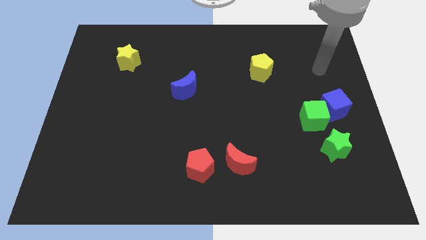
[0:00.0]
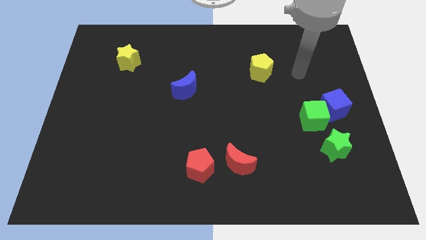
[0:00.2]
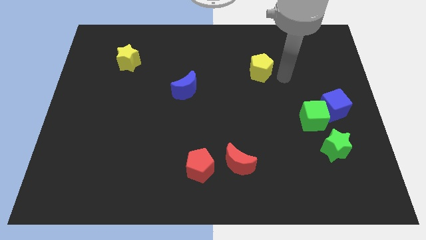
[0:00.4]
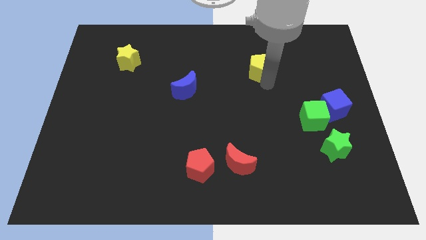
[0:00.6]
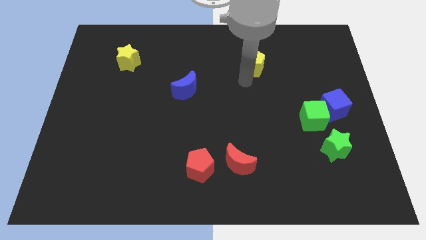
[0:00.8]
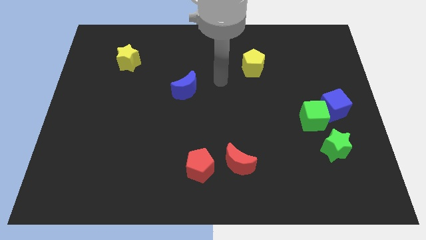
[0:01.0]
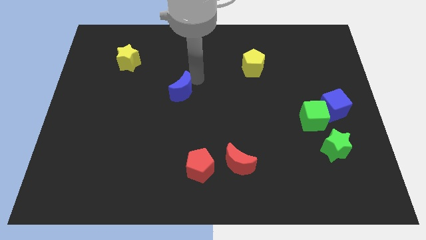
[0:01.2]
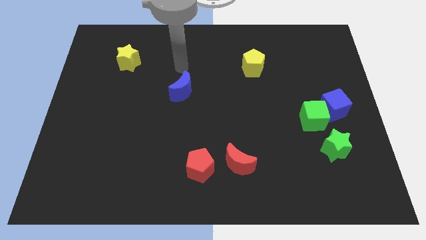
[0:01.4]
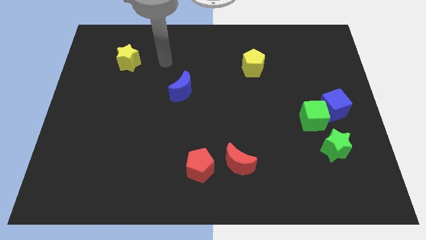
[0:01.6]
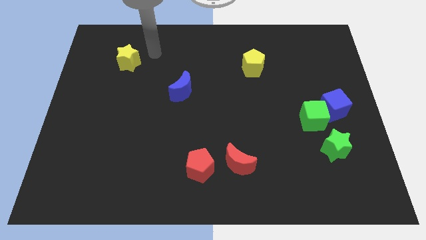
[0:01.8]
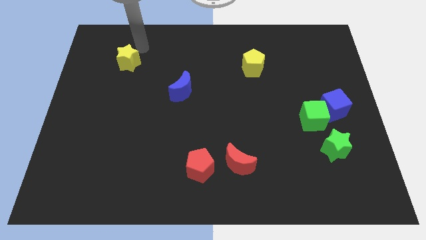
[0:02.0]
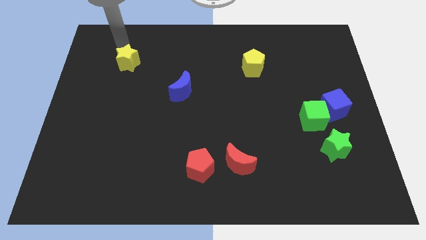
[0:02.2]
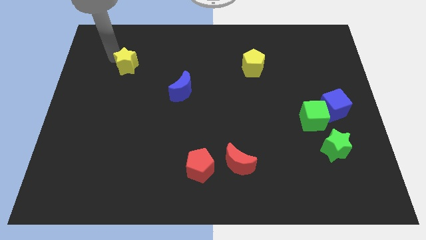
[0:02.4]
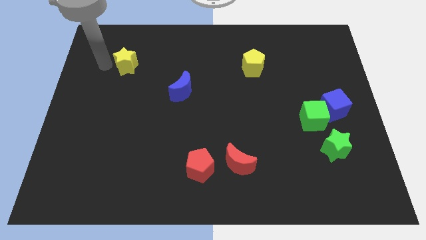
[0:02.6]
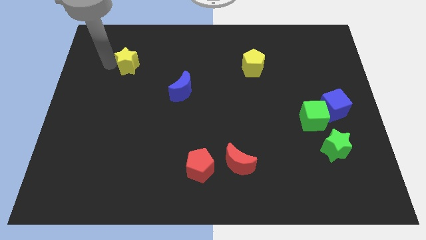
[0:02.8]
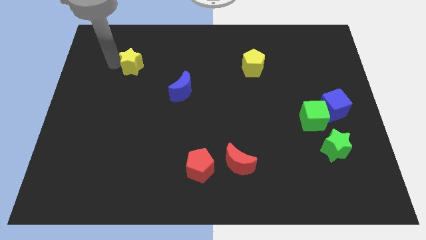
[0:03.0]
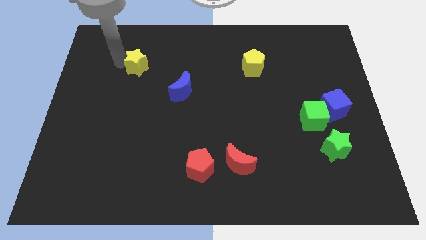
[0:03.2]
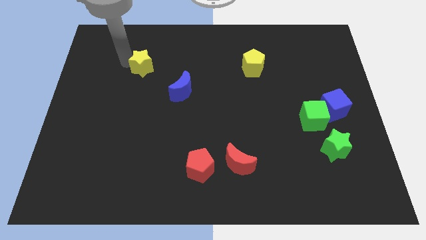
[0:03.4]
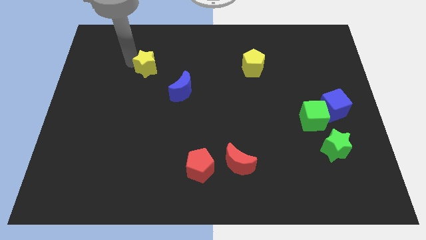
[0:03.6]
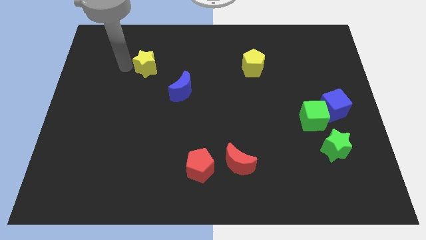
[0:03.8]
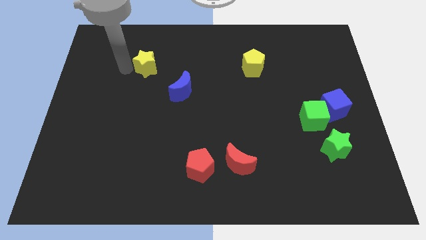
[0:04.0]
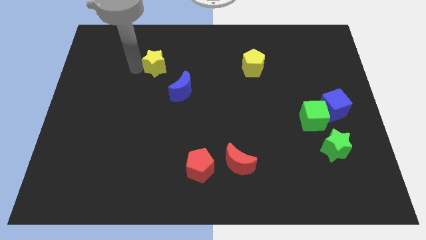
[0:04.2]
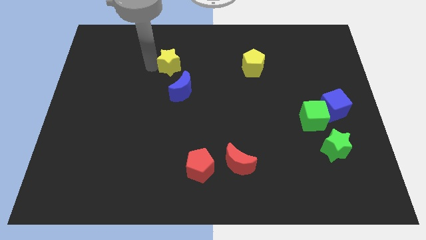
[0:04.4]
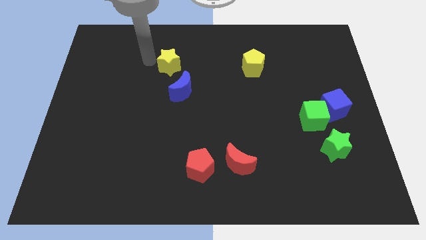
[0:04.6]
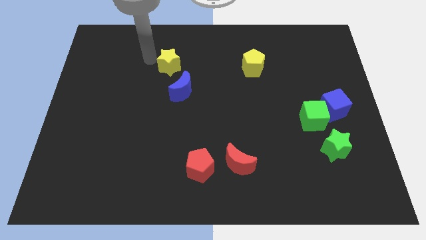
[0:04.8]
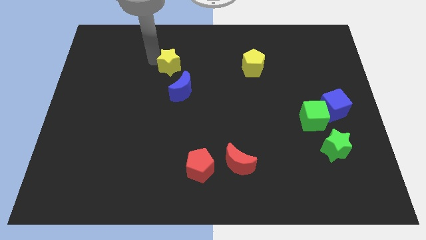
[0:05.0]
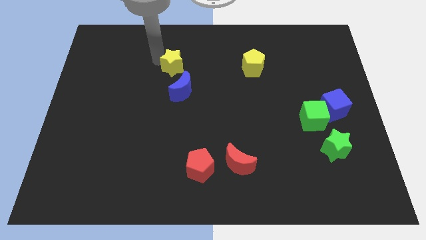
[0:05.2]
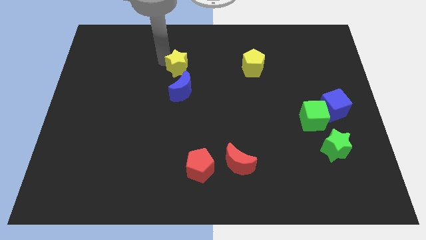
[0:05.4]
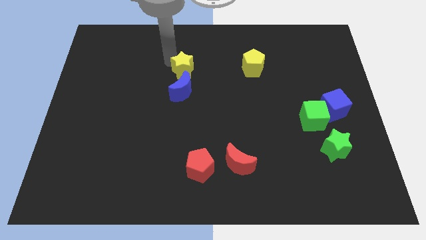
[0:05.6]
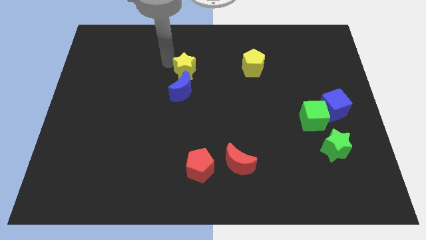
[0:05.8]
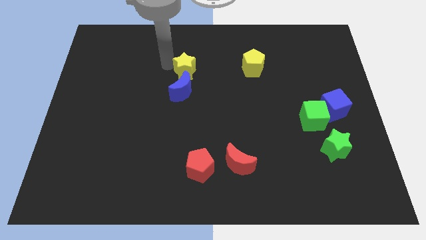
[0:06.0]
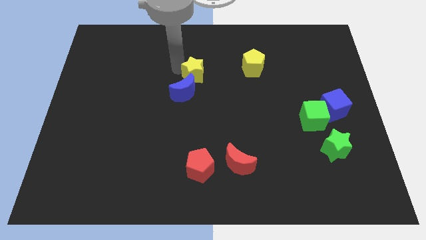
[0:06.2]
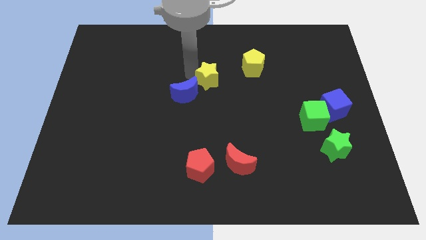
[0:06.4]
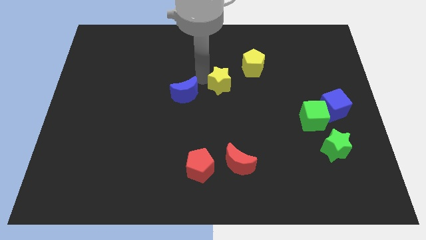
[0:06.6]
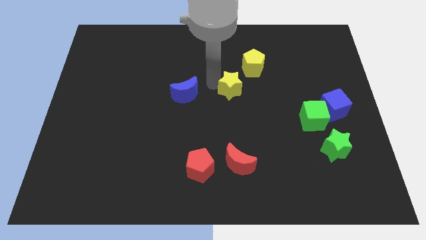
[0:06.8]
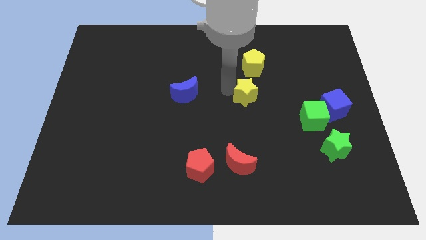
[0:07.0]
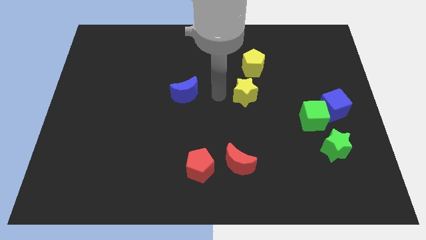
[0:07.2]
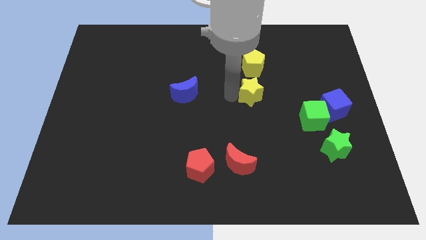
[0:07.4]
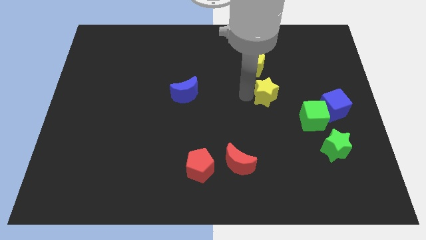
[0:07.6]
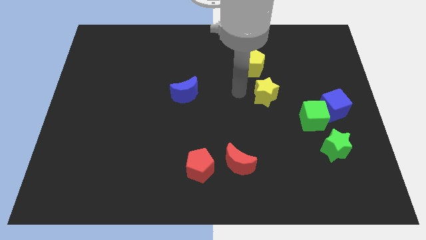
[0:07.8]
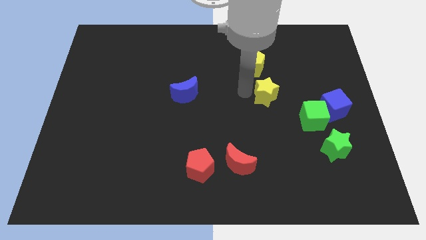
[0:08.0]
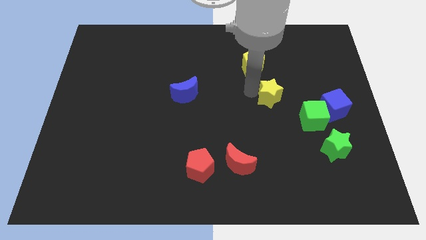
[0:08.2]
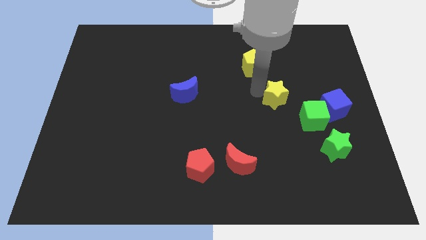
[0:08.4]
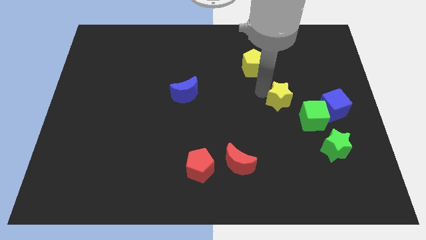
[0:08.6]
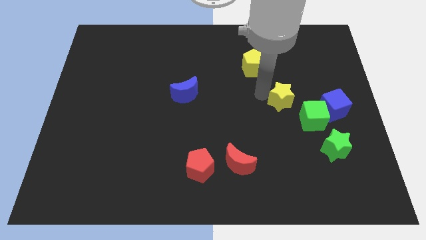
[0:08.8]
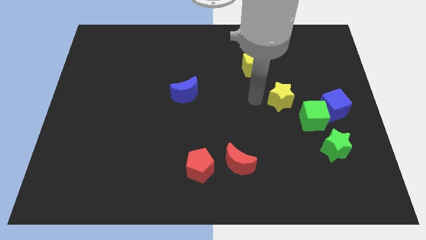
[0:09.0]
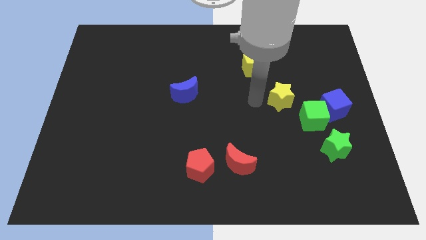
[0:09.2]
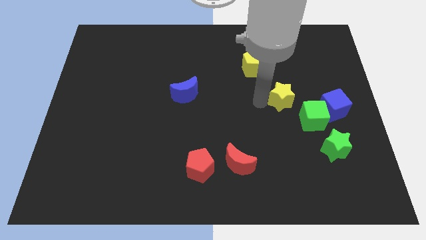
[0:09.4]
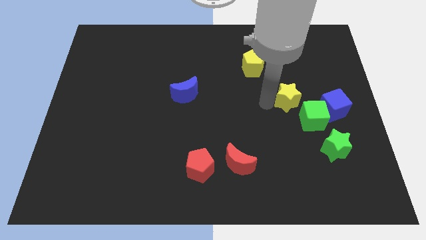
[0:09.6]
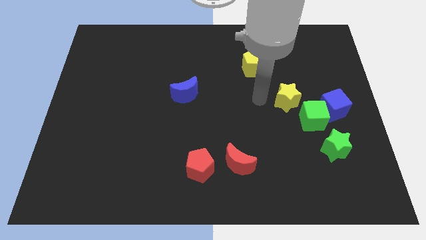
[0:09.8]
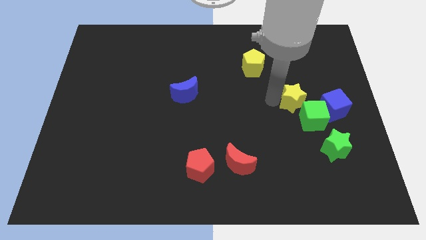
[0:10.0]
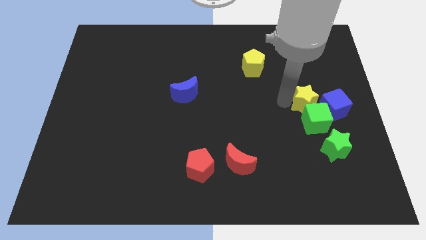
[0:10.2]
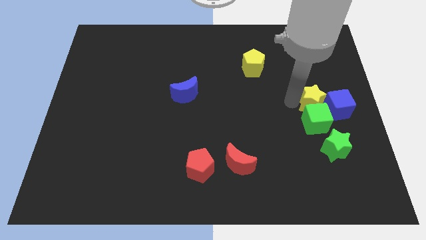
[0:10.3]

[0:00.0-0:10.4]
put the yellow star next to the blue cube

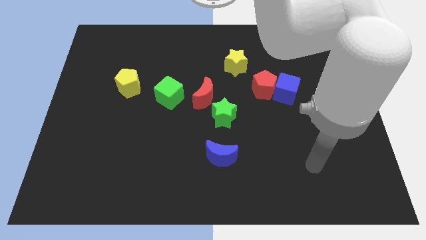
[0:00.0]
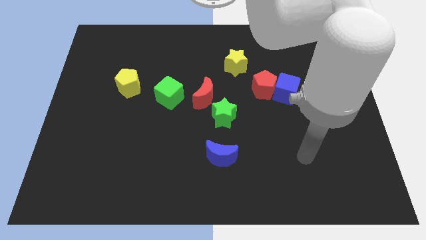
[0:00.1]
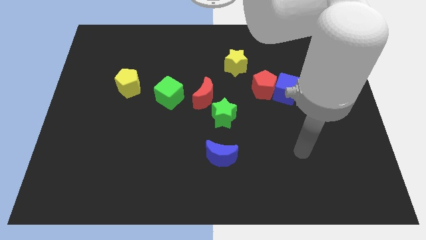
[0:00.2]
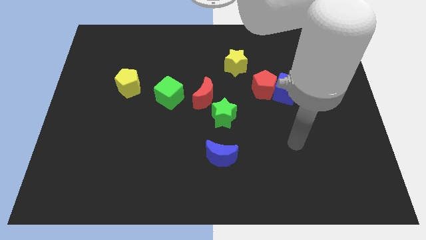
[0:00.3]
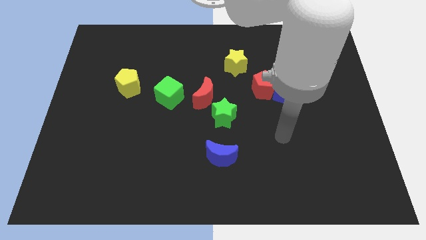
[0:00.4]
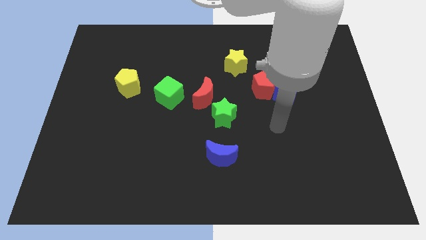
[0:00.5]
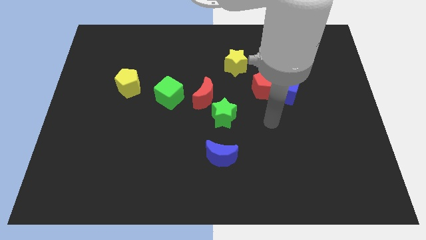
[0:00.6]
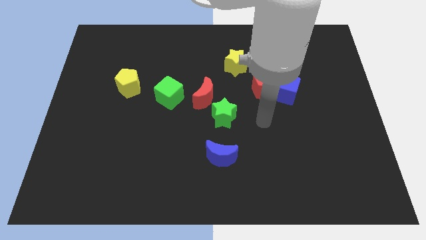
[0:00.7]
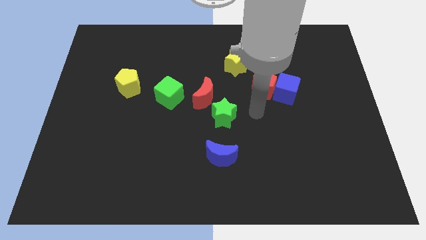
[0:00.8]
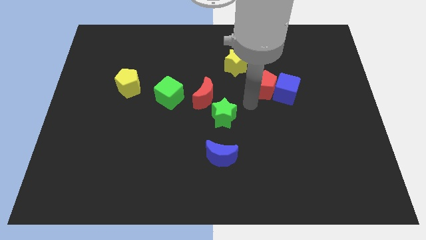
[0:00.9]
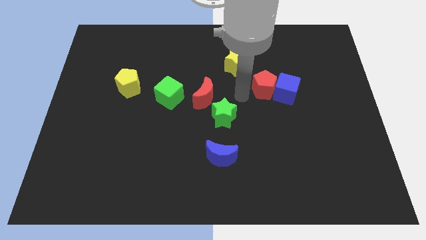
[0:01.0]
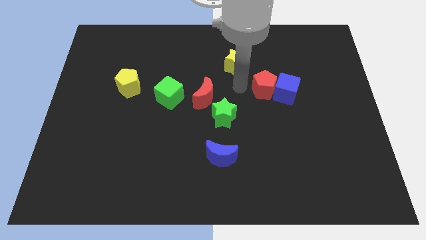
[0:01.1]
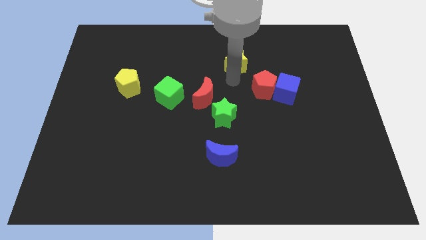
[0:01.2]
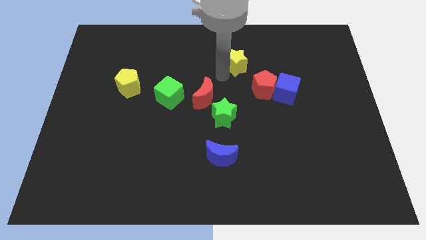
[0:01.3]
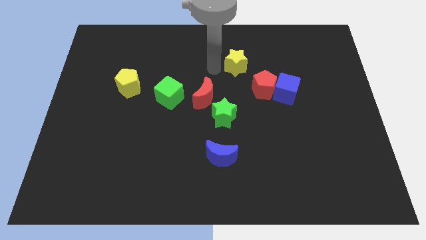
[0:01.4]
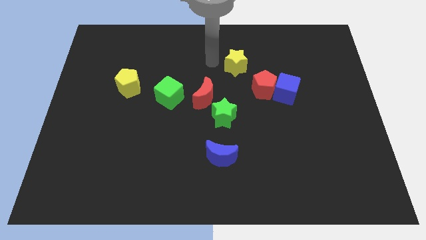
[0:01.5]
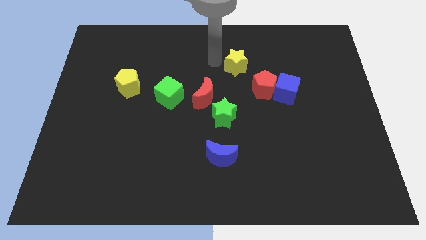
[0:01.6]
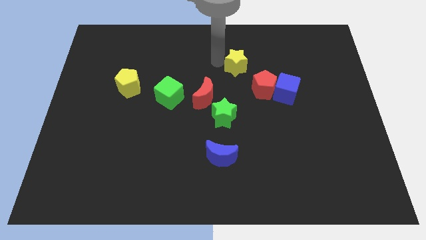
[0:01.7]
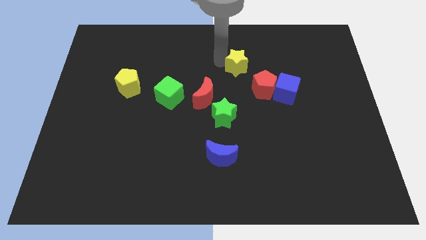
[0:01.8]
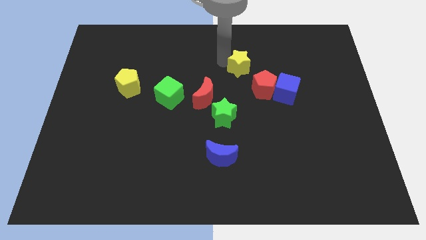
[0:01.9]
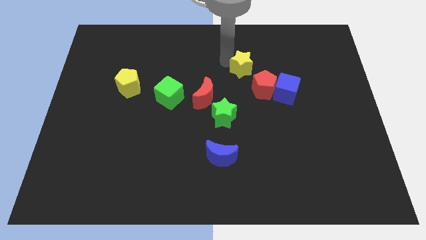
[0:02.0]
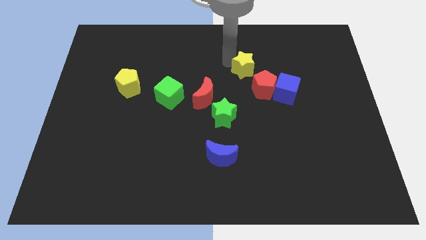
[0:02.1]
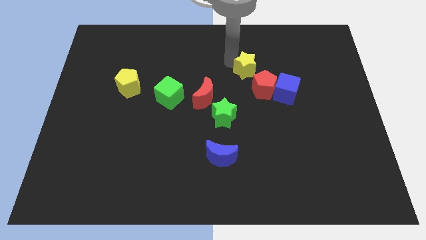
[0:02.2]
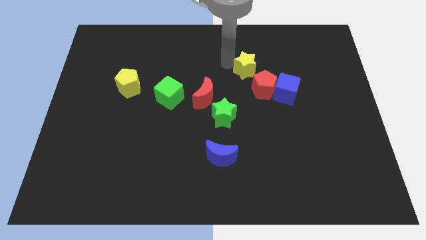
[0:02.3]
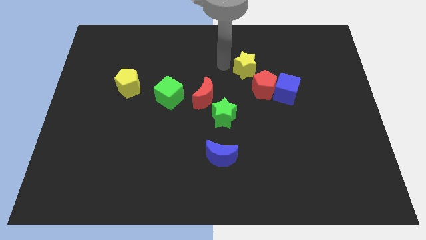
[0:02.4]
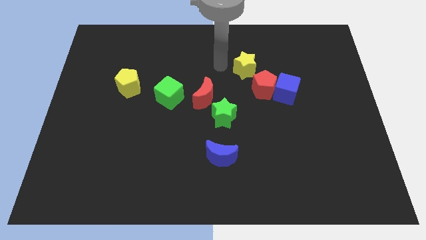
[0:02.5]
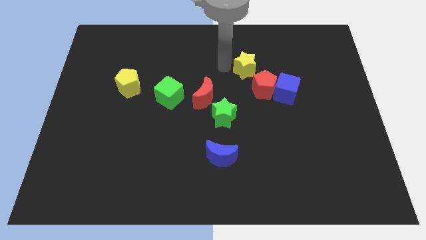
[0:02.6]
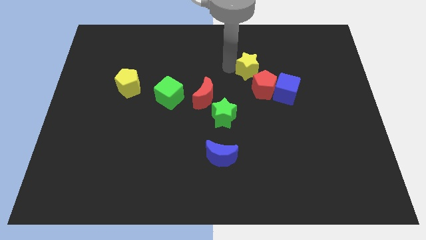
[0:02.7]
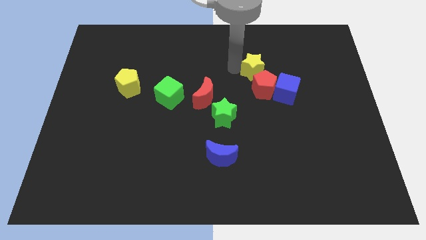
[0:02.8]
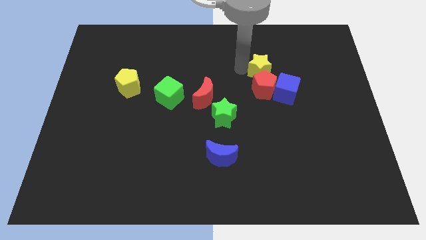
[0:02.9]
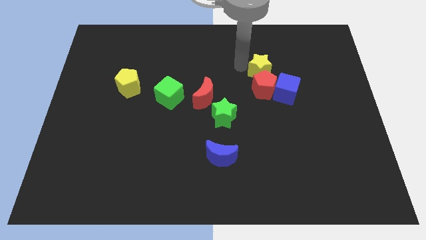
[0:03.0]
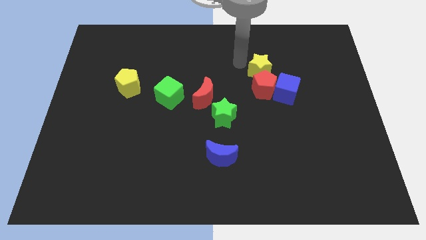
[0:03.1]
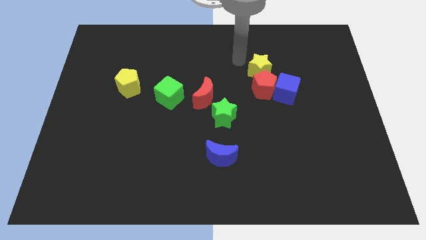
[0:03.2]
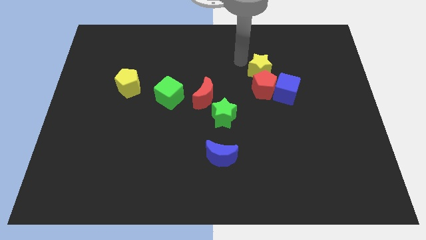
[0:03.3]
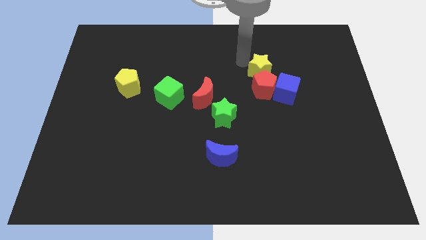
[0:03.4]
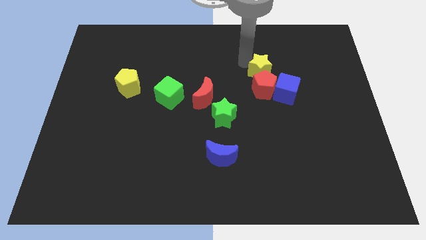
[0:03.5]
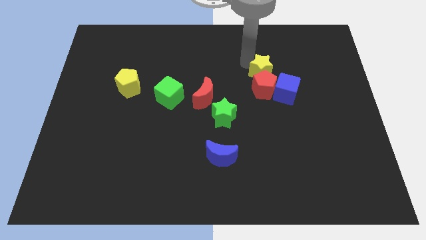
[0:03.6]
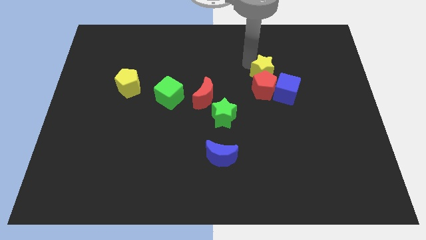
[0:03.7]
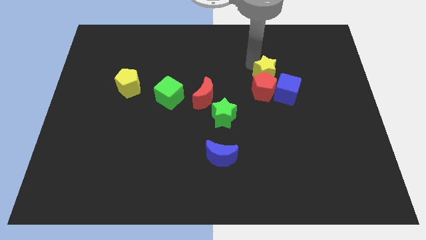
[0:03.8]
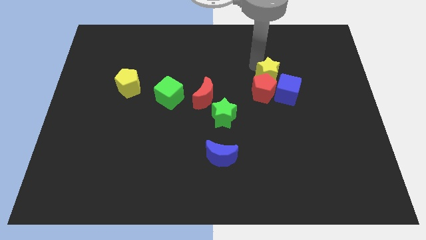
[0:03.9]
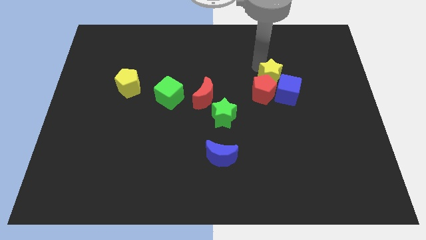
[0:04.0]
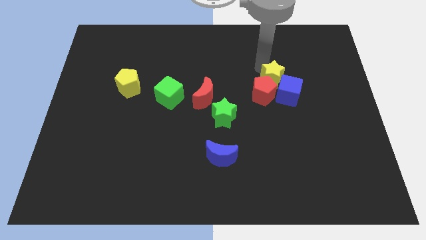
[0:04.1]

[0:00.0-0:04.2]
push the yellow star next to the blue cube
